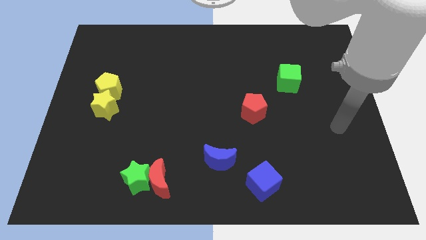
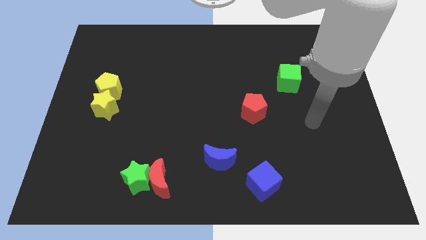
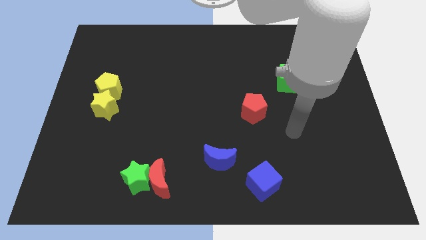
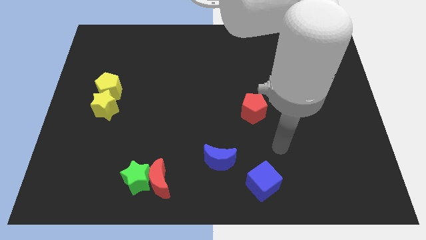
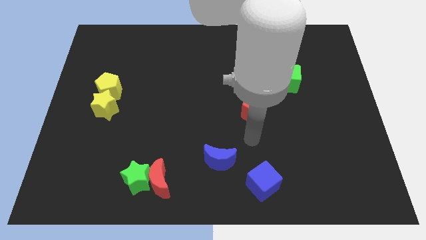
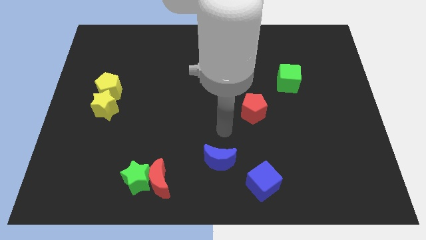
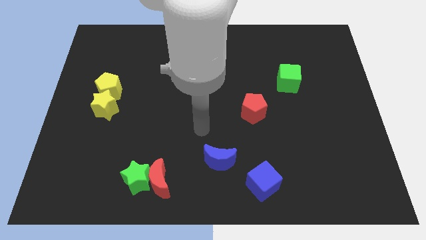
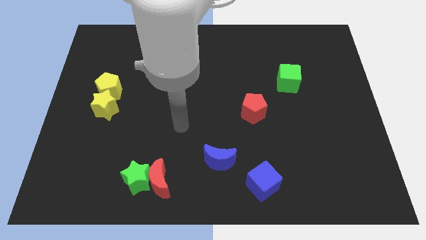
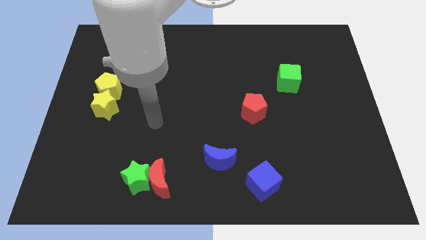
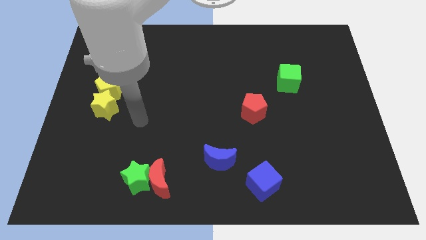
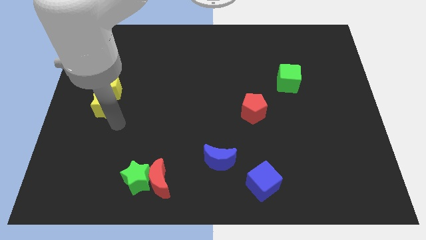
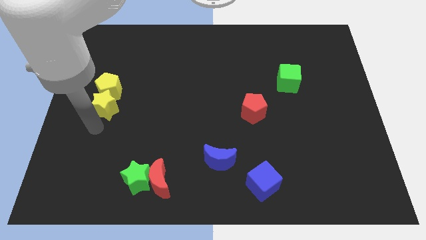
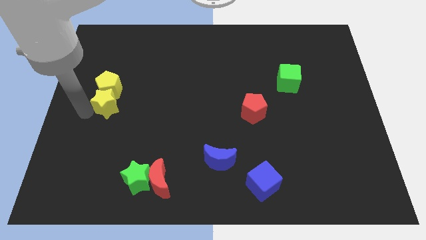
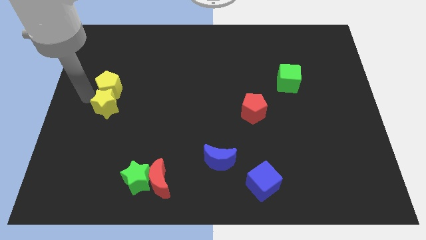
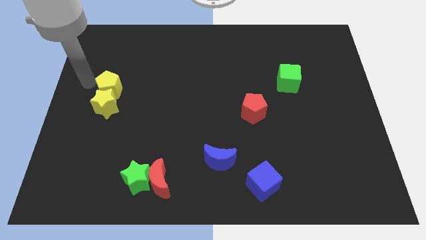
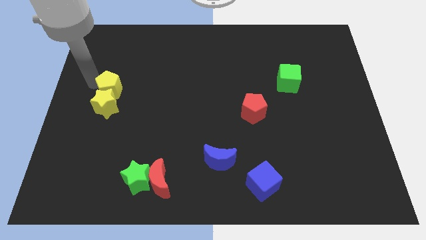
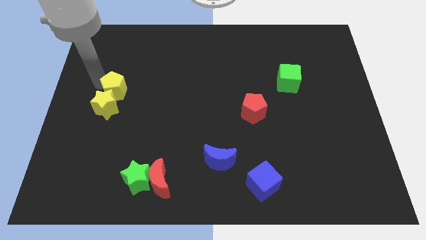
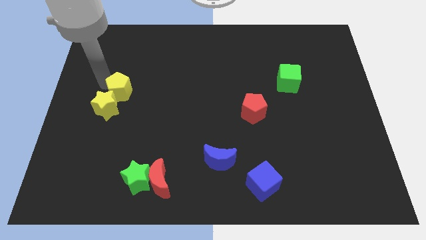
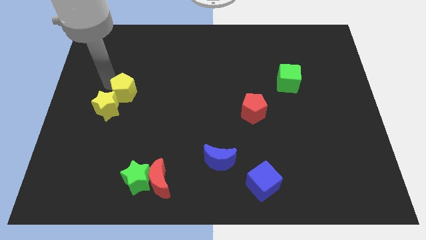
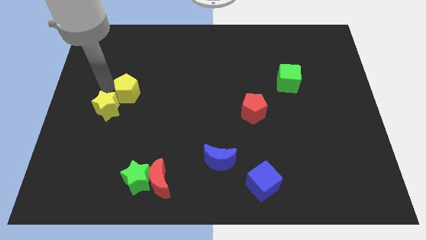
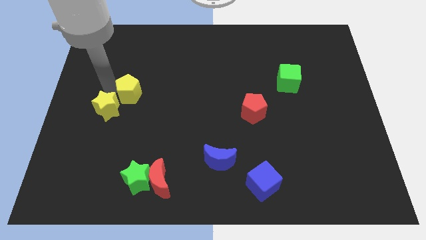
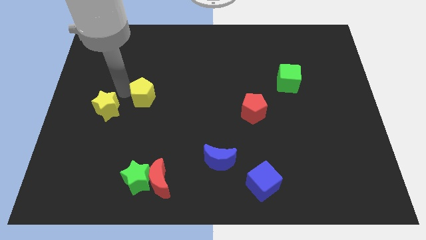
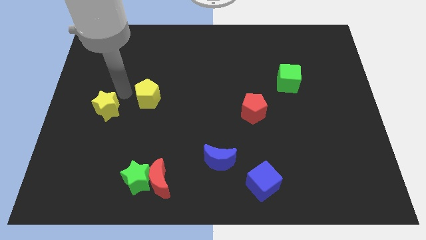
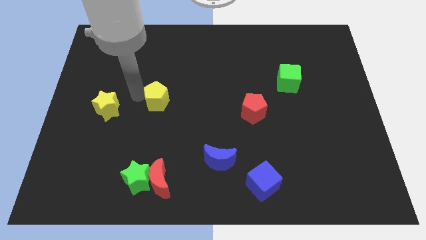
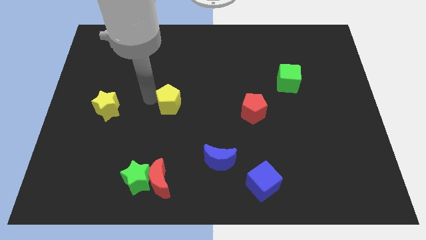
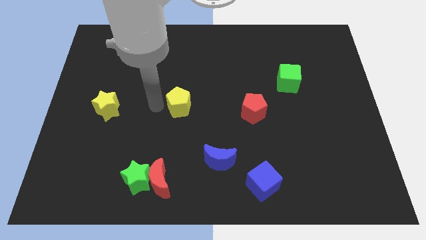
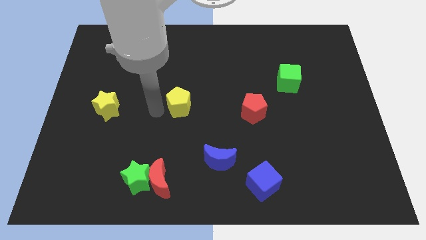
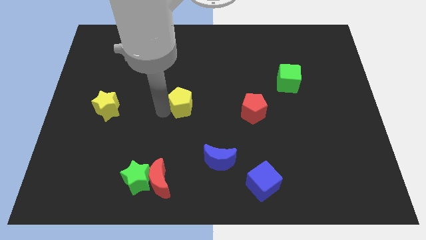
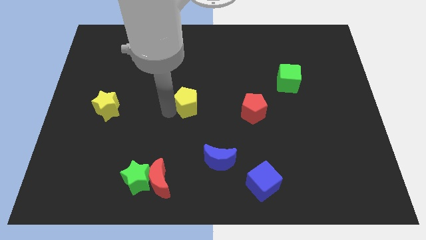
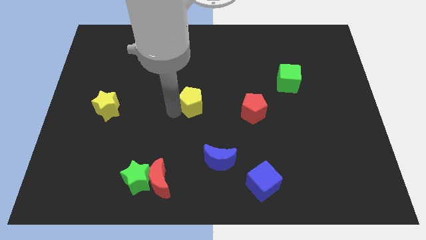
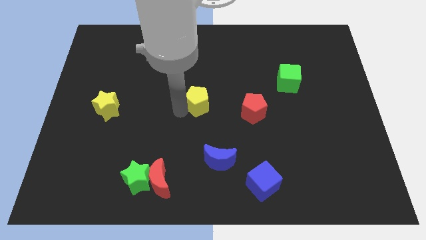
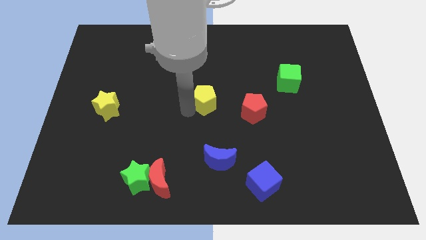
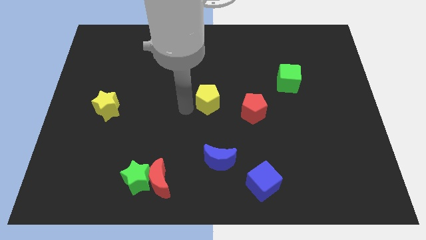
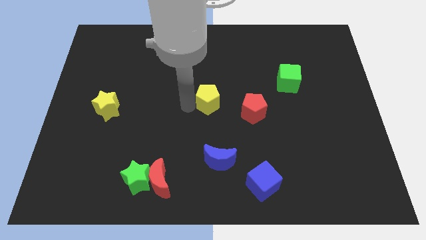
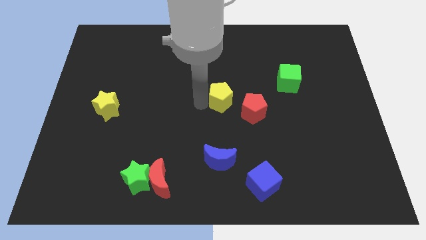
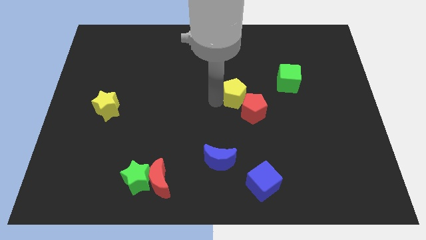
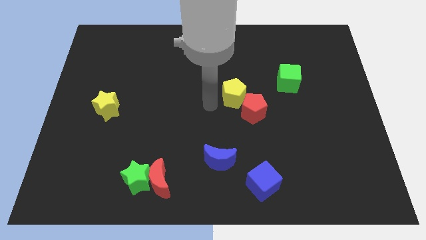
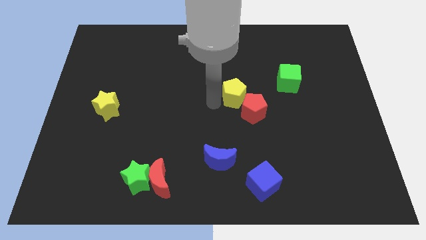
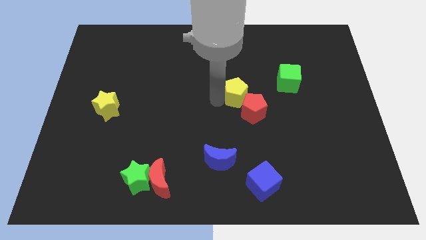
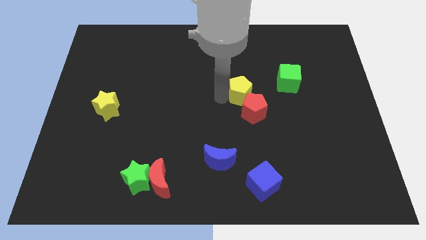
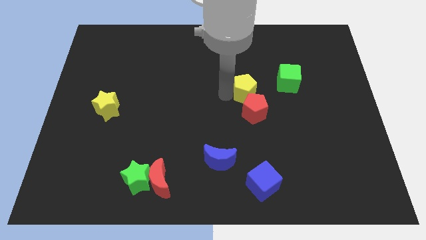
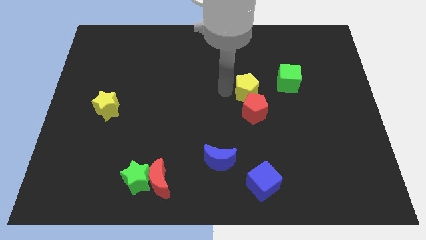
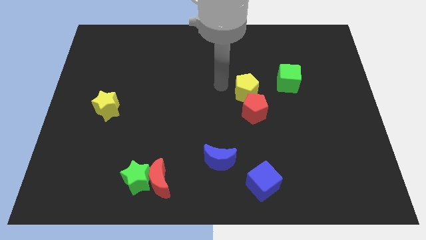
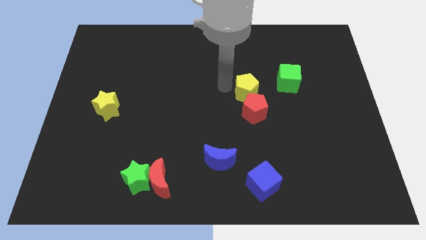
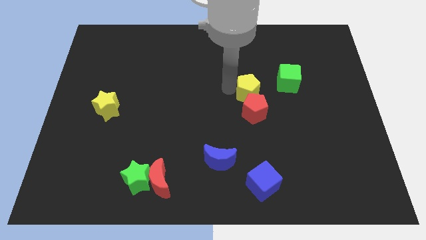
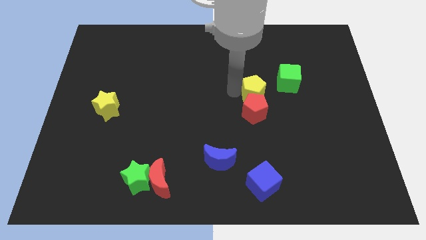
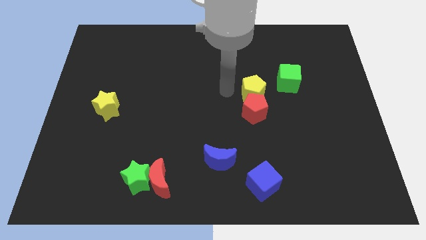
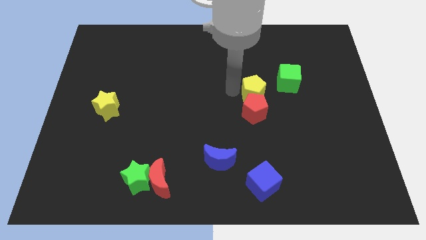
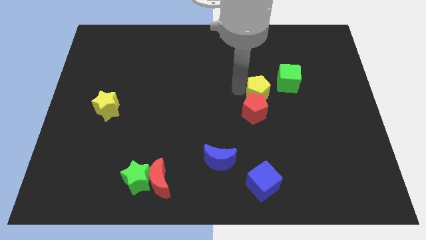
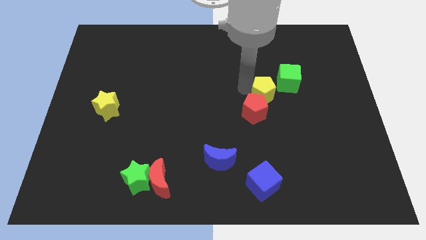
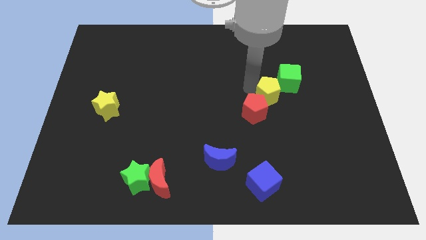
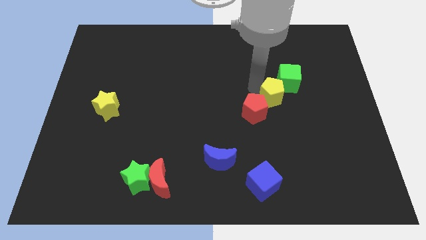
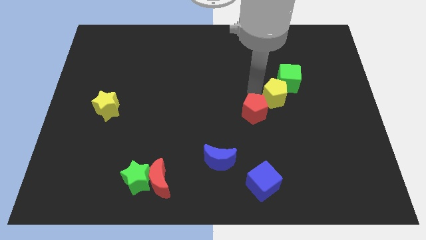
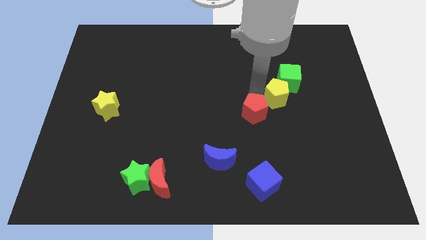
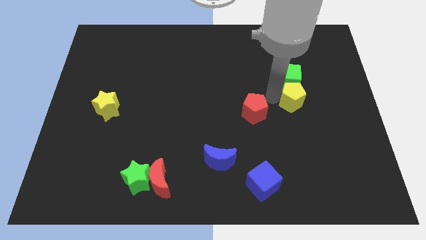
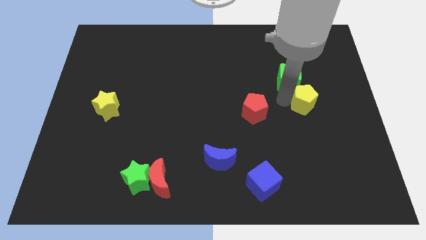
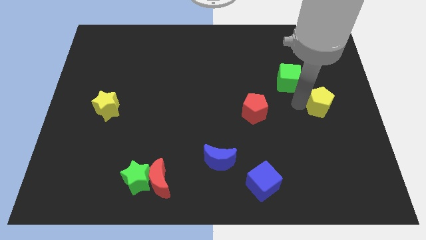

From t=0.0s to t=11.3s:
put the yellow pentagon to the center right
